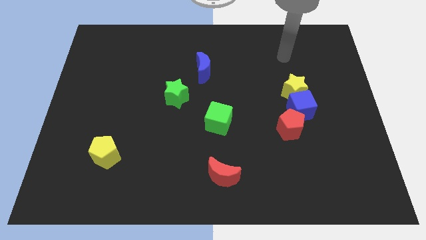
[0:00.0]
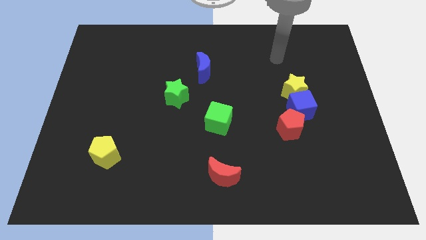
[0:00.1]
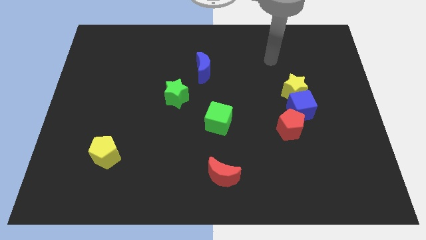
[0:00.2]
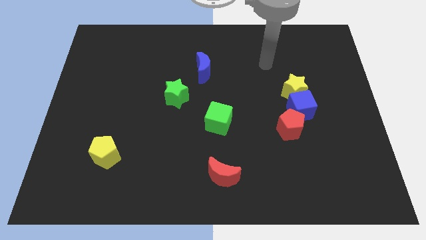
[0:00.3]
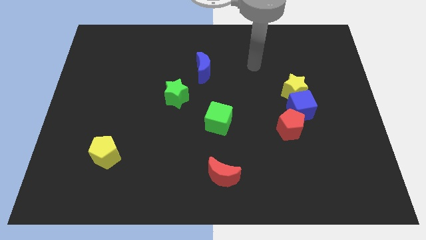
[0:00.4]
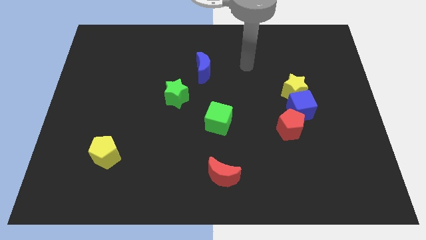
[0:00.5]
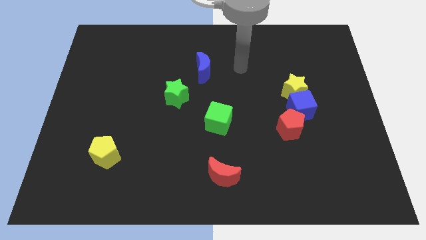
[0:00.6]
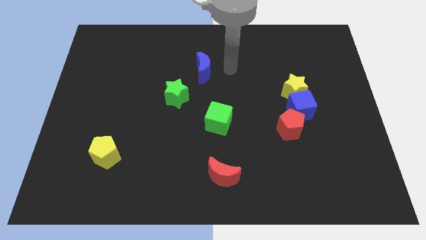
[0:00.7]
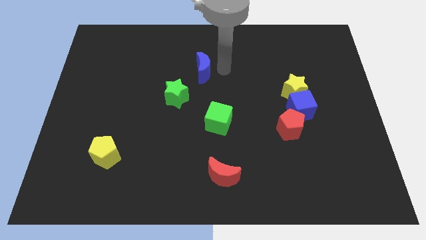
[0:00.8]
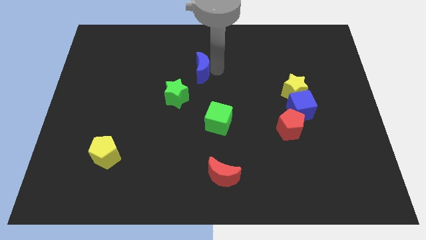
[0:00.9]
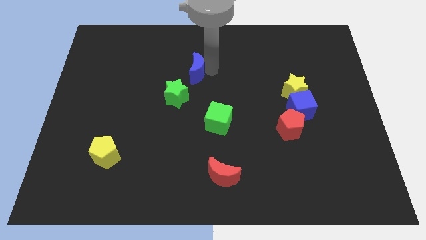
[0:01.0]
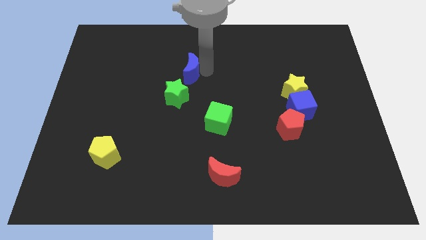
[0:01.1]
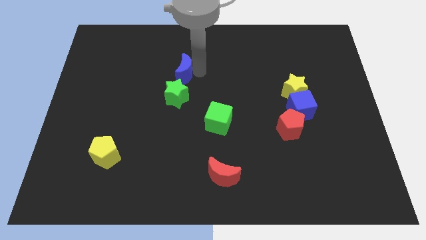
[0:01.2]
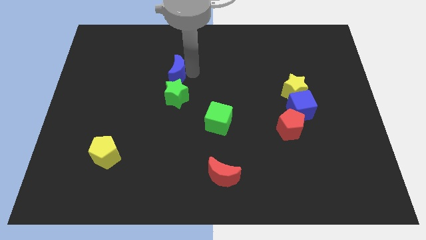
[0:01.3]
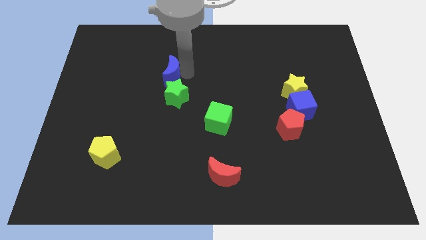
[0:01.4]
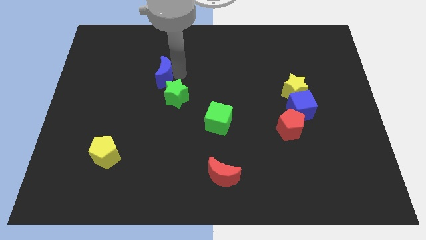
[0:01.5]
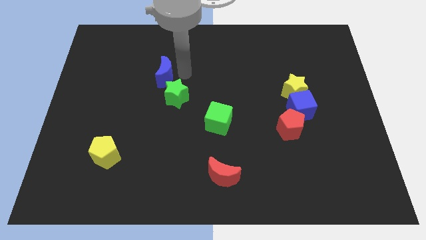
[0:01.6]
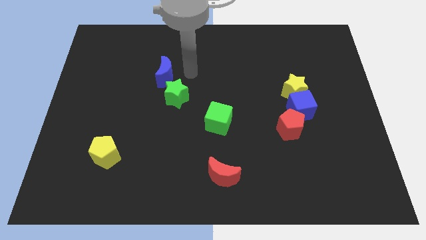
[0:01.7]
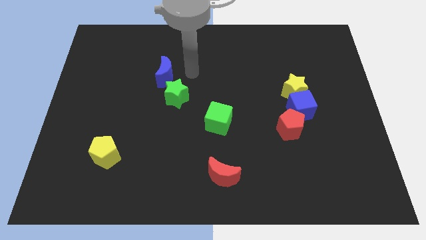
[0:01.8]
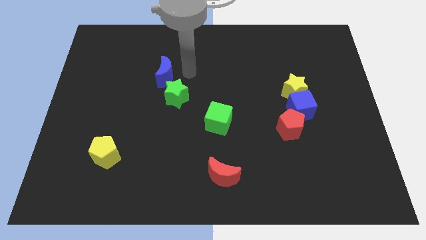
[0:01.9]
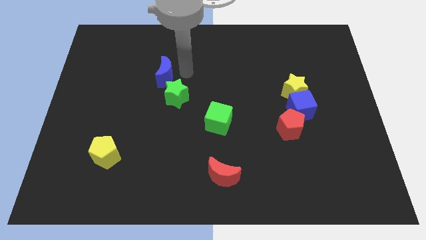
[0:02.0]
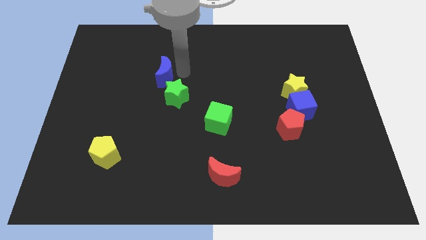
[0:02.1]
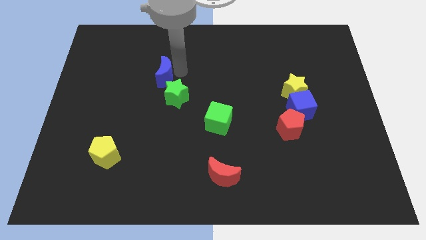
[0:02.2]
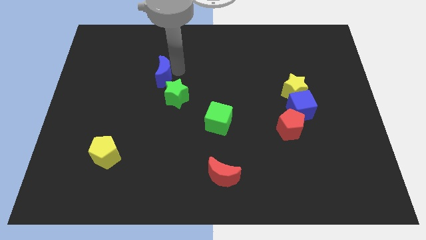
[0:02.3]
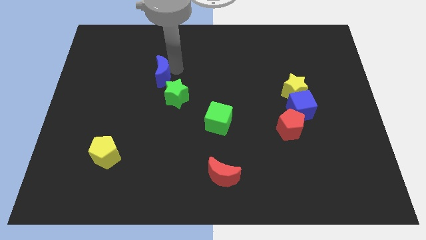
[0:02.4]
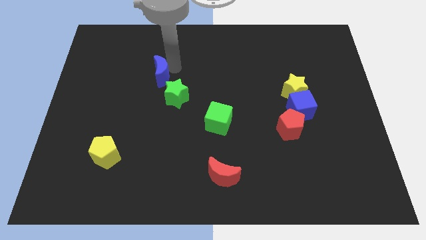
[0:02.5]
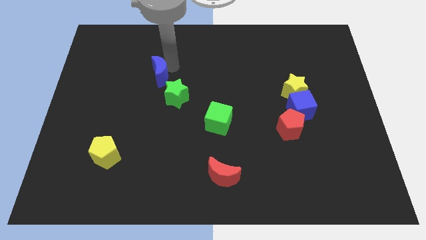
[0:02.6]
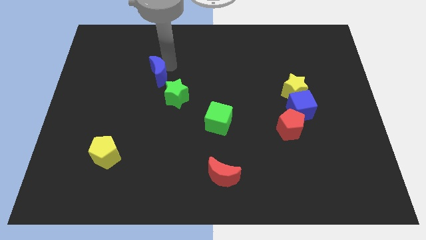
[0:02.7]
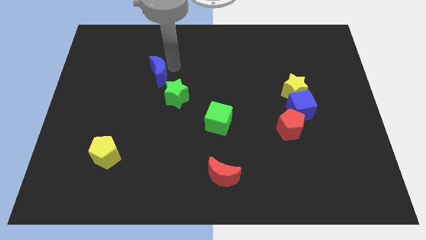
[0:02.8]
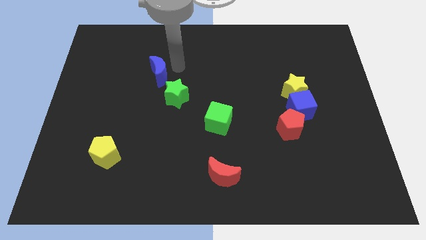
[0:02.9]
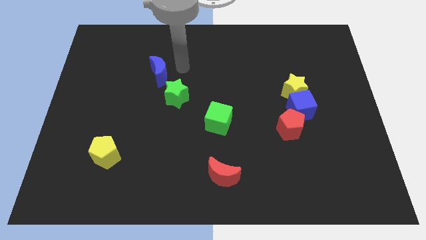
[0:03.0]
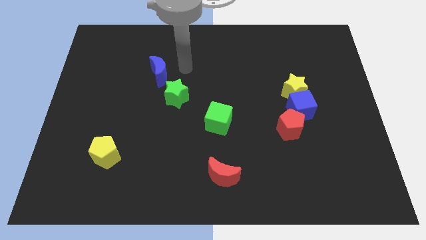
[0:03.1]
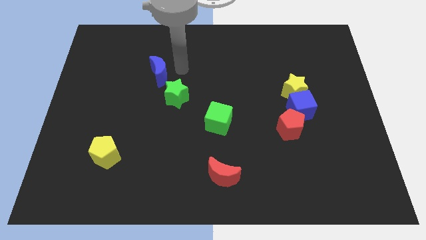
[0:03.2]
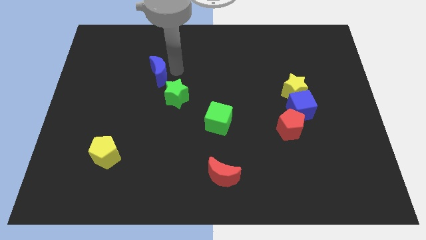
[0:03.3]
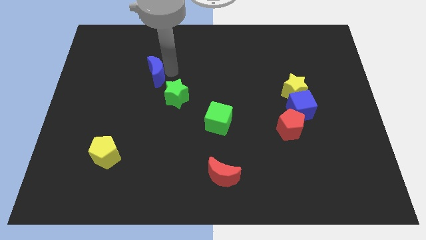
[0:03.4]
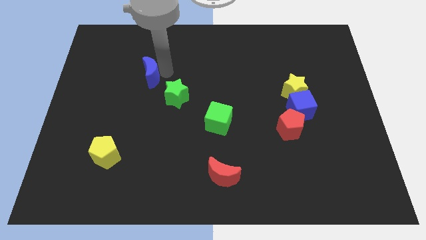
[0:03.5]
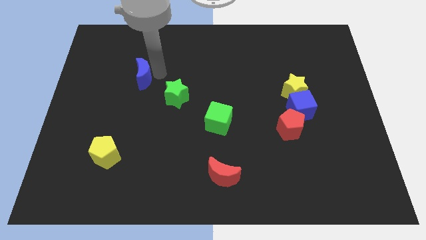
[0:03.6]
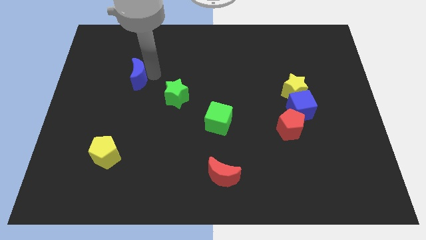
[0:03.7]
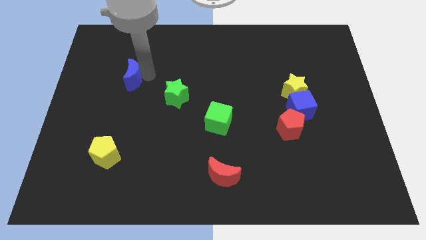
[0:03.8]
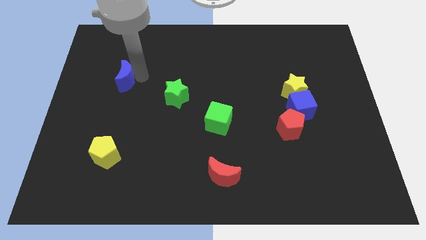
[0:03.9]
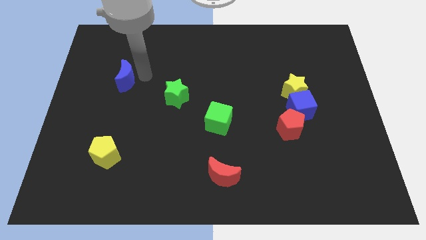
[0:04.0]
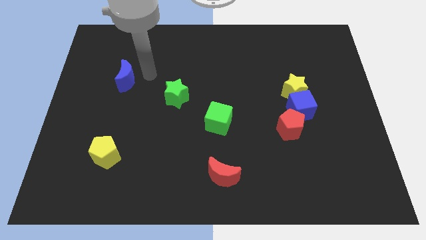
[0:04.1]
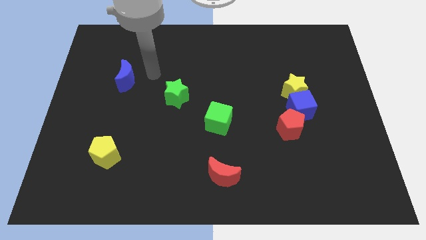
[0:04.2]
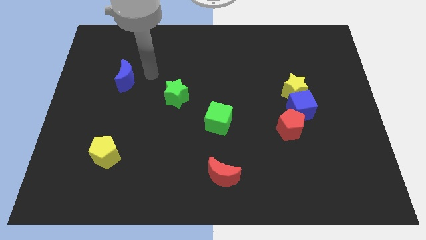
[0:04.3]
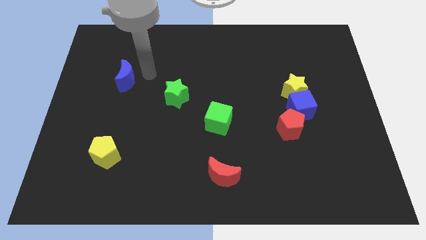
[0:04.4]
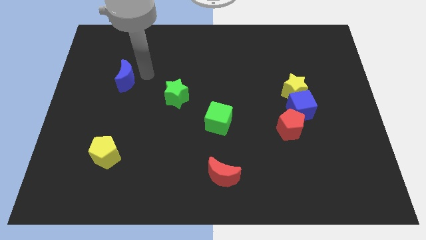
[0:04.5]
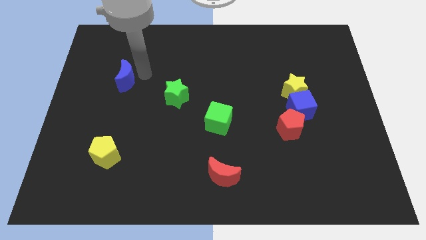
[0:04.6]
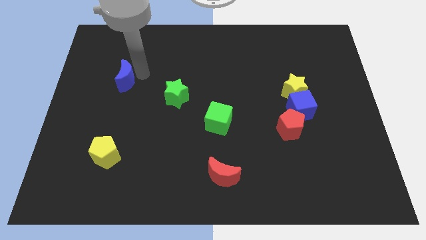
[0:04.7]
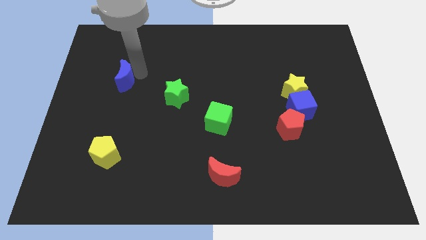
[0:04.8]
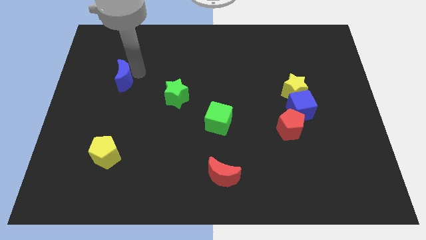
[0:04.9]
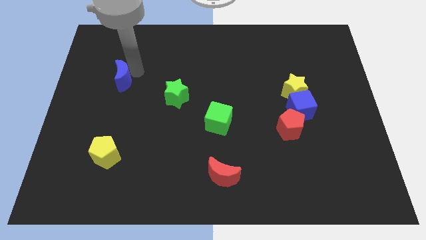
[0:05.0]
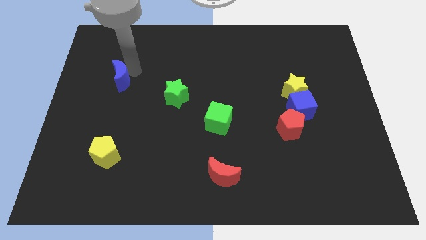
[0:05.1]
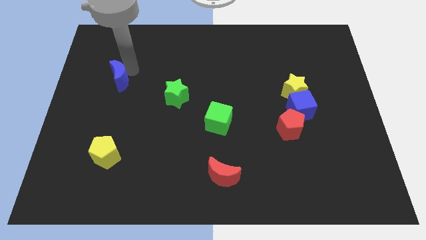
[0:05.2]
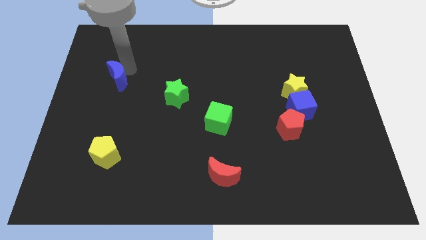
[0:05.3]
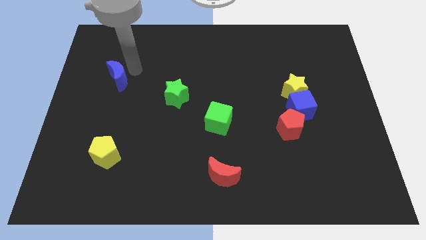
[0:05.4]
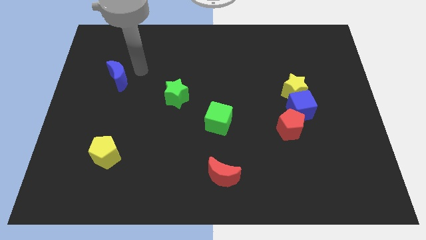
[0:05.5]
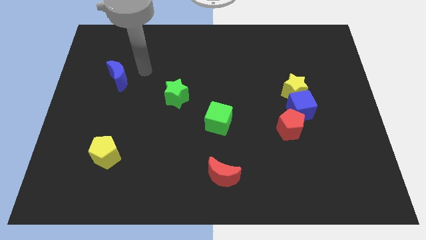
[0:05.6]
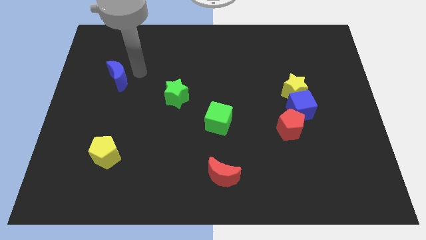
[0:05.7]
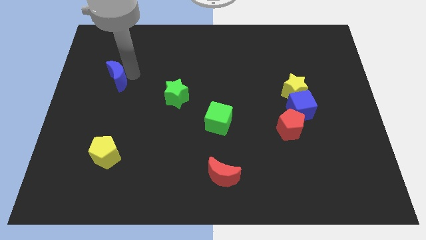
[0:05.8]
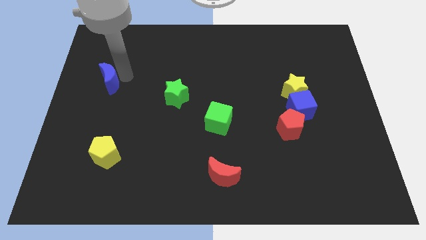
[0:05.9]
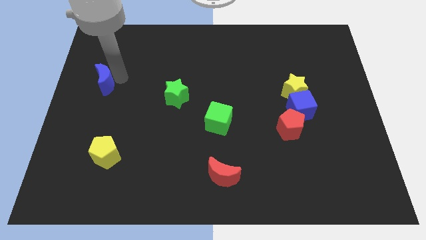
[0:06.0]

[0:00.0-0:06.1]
move the blue moon to the left side of the board

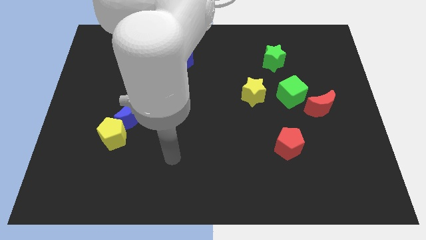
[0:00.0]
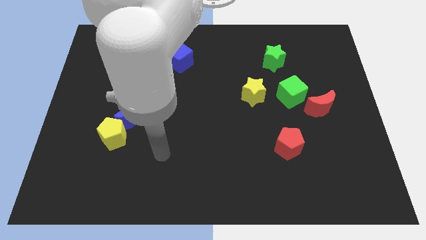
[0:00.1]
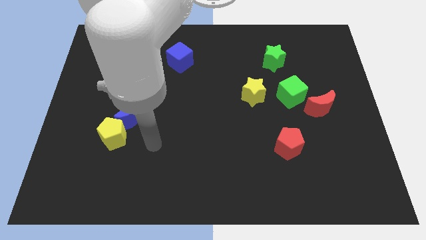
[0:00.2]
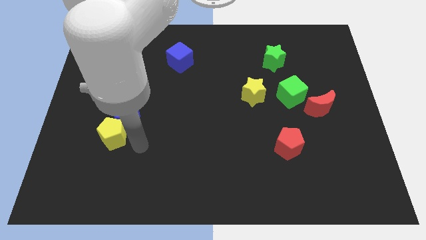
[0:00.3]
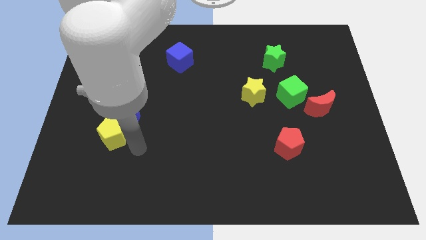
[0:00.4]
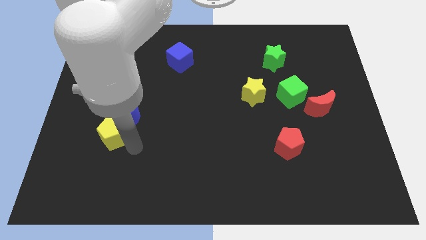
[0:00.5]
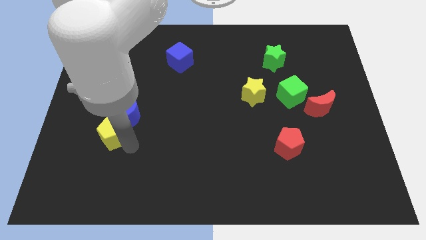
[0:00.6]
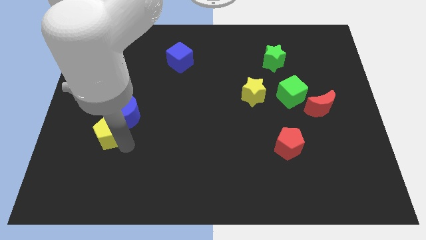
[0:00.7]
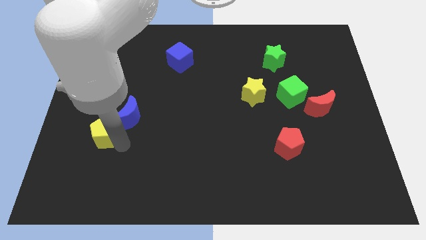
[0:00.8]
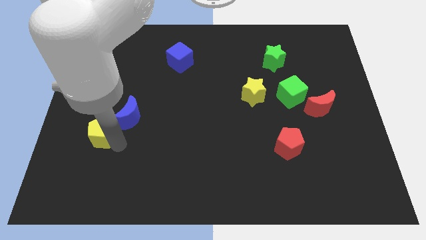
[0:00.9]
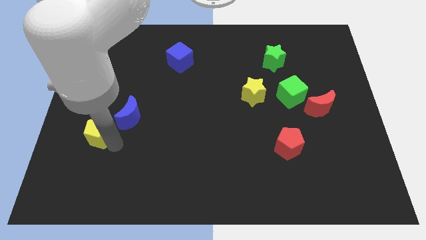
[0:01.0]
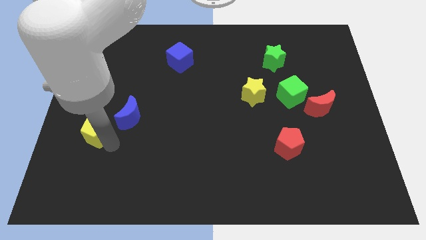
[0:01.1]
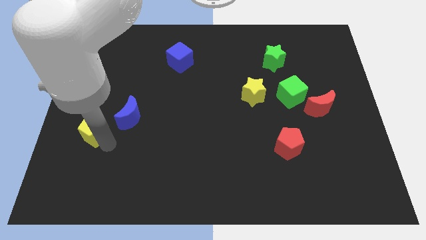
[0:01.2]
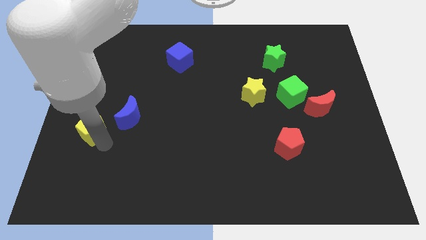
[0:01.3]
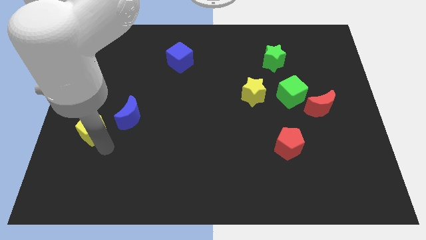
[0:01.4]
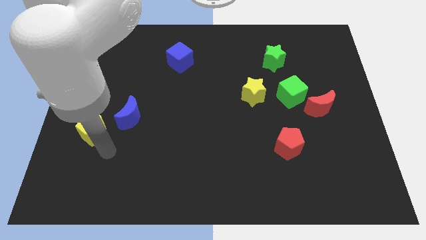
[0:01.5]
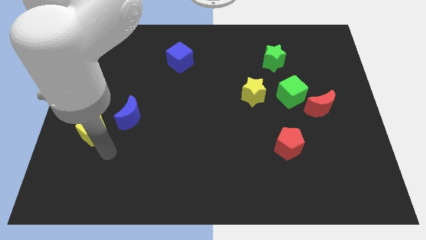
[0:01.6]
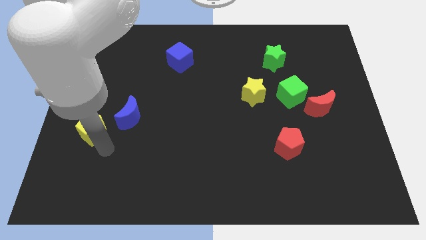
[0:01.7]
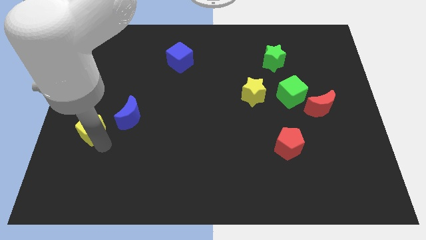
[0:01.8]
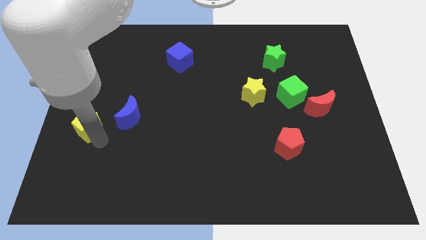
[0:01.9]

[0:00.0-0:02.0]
put the yellow pentagon to the left side of the board
